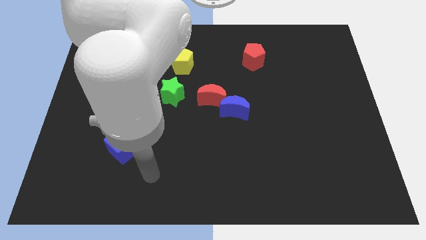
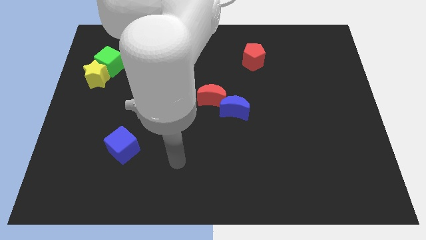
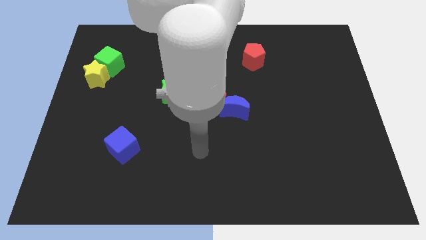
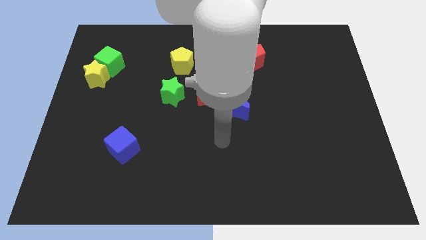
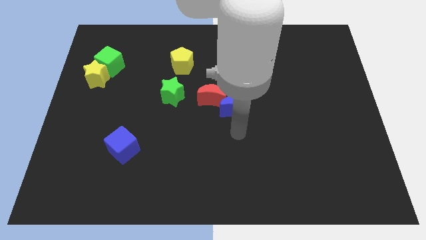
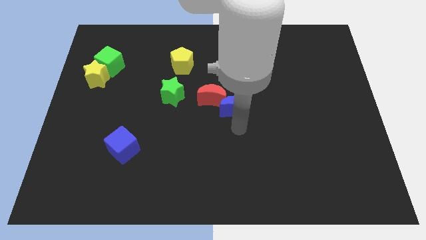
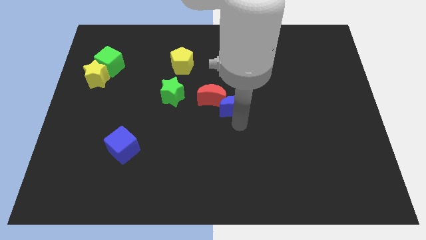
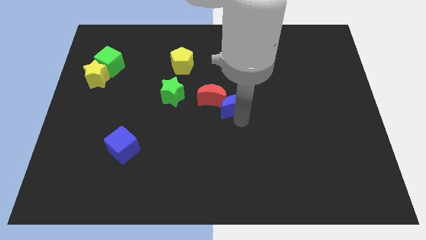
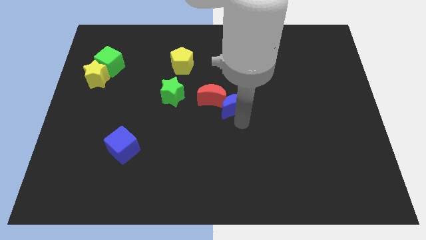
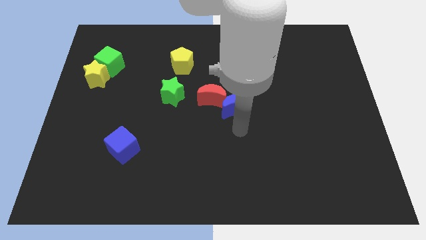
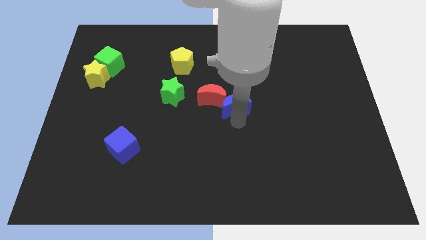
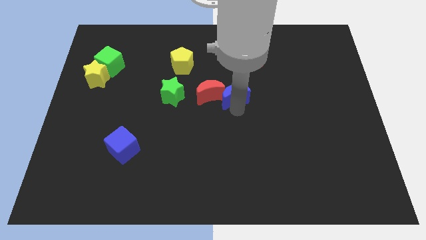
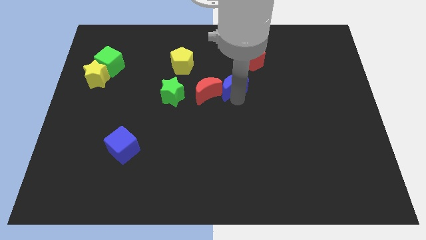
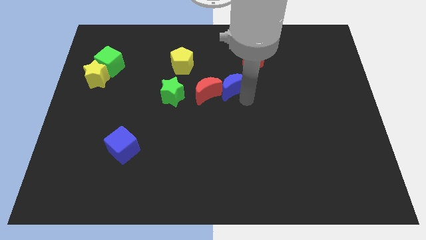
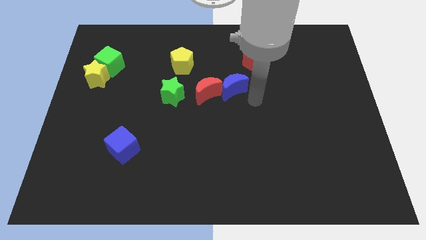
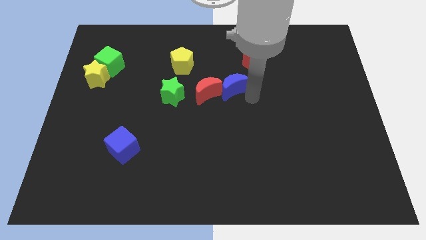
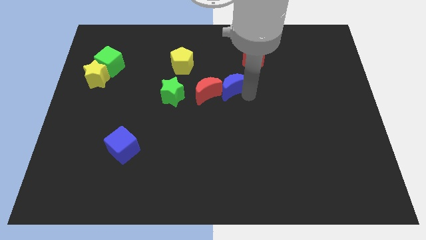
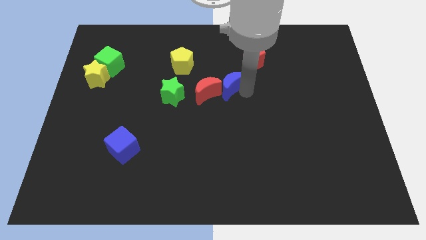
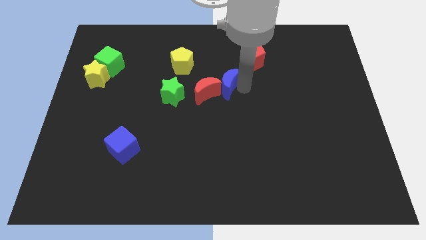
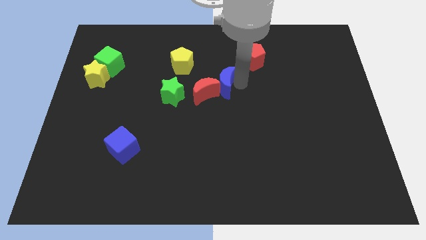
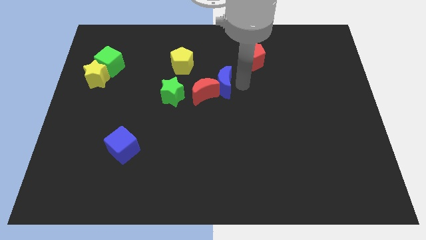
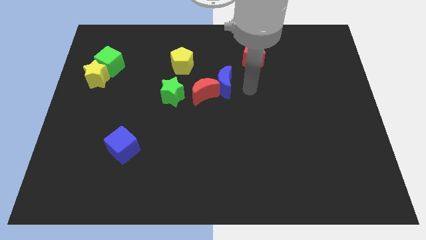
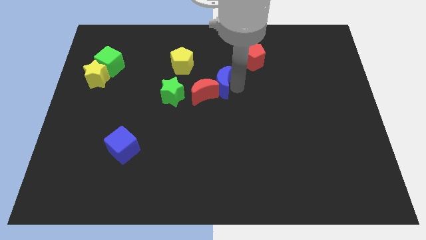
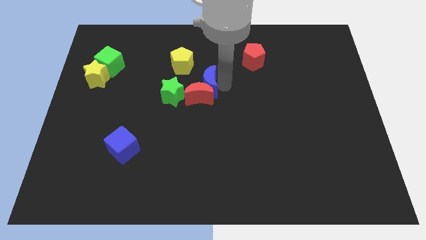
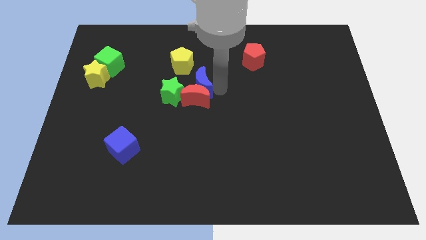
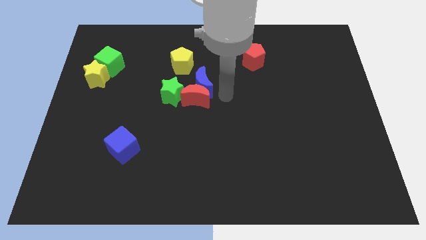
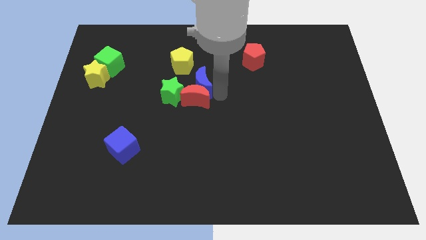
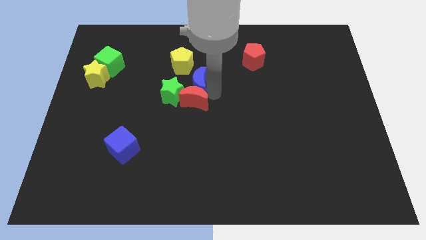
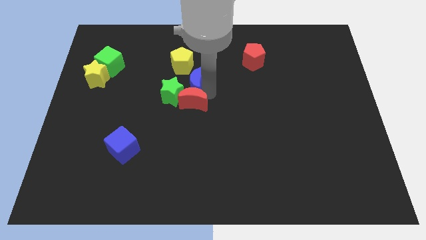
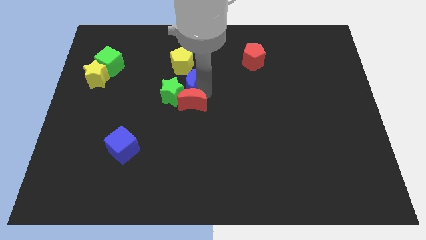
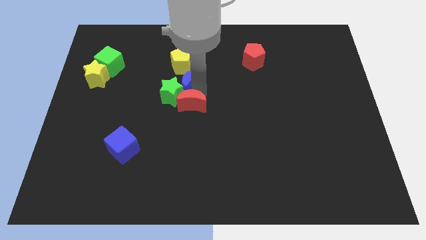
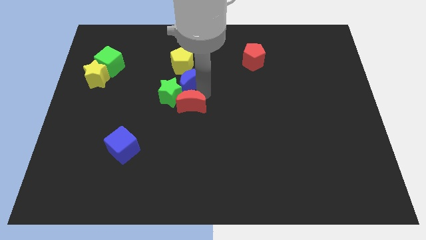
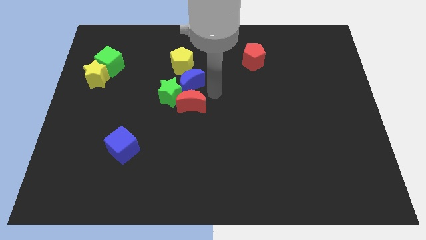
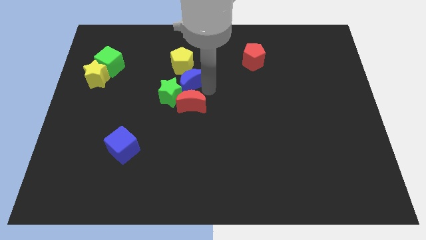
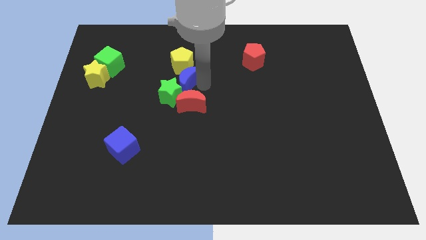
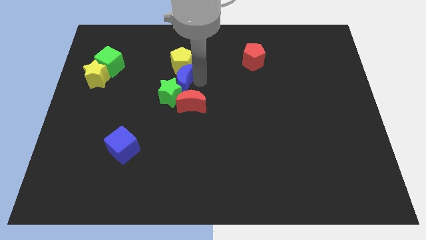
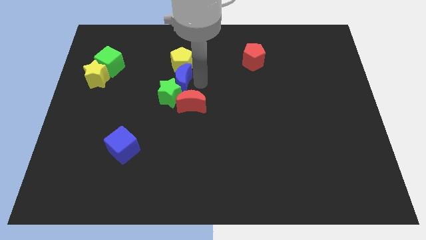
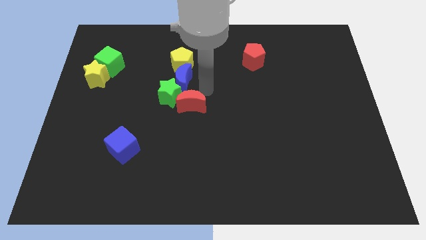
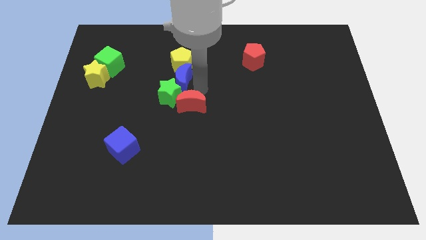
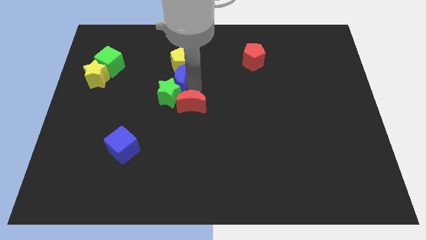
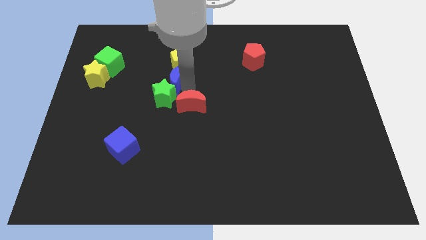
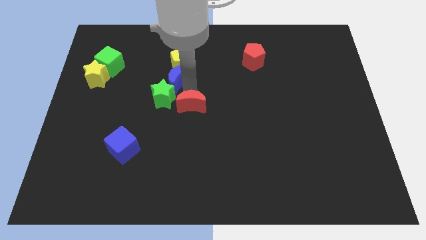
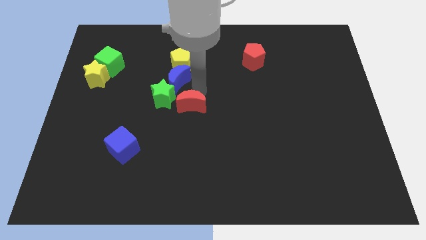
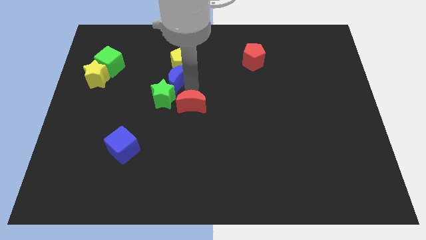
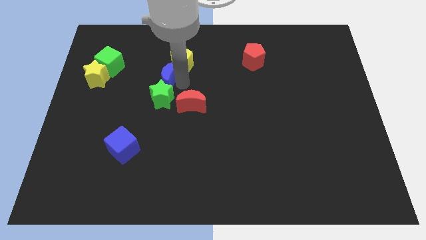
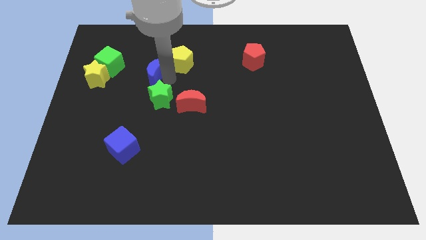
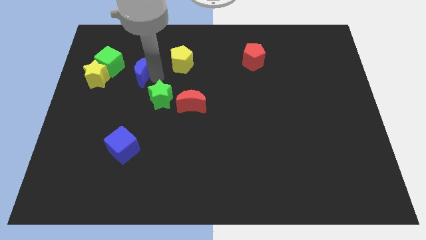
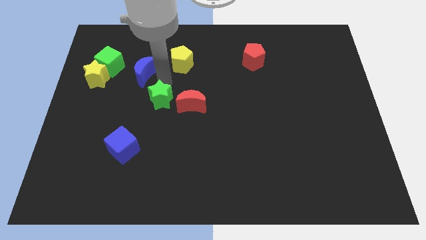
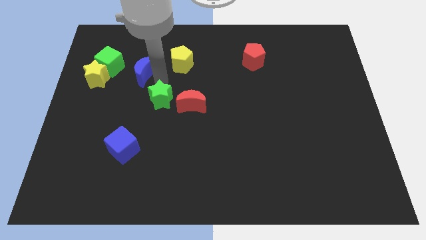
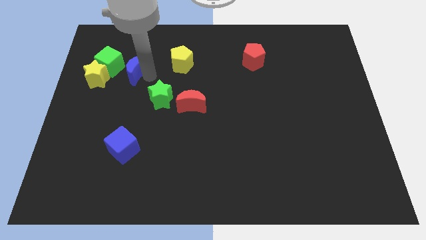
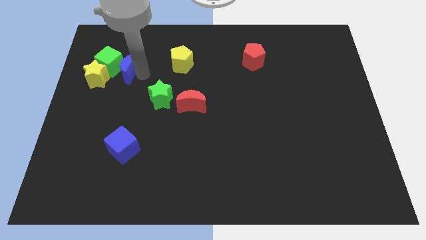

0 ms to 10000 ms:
push the blue moon diagonally up and to the right of the yellow star

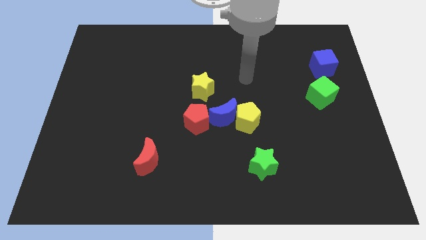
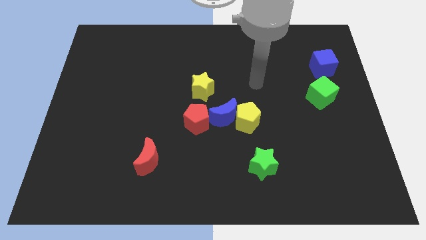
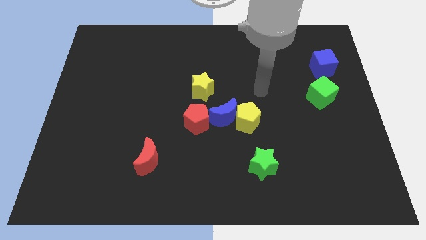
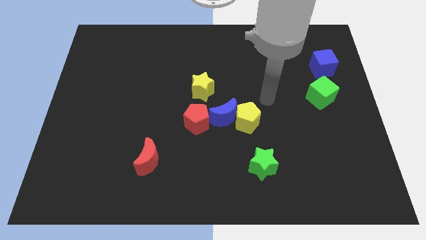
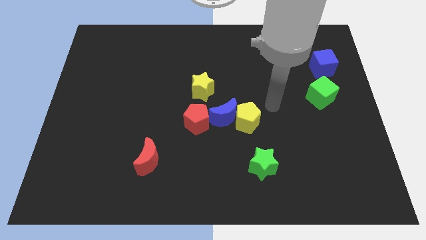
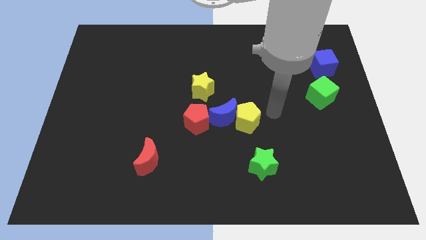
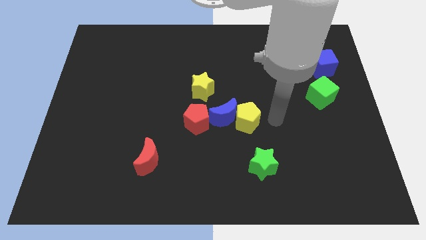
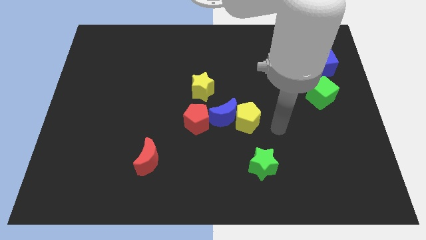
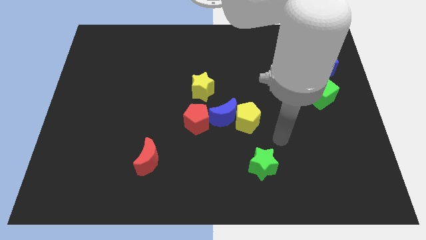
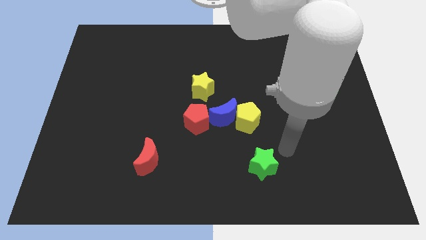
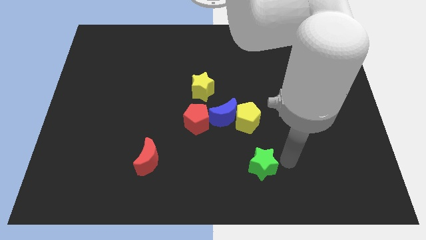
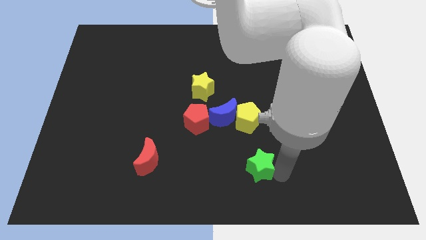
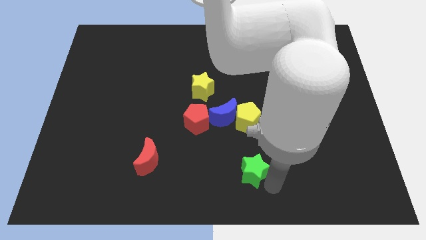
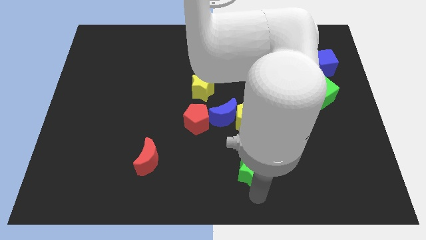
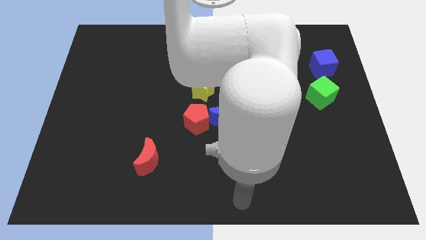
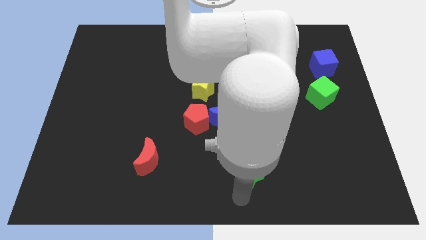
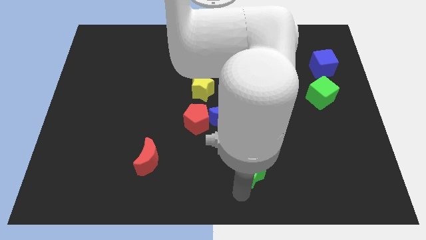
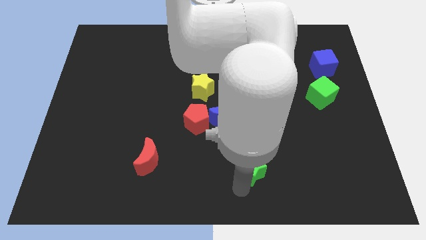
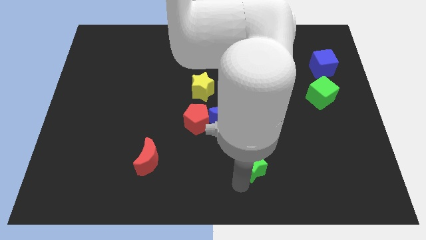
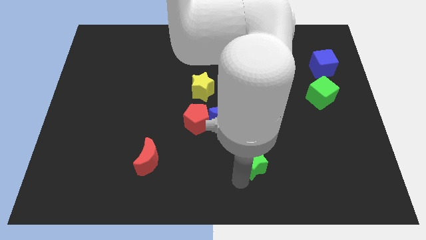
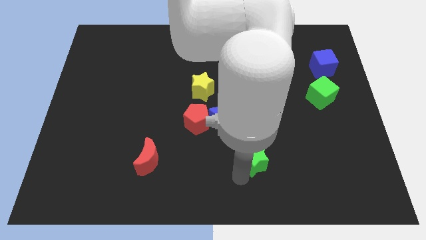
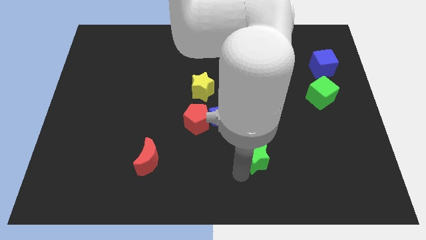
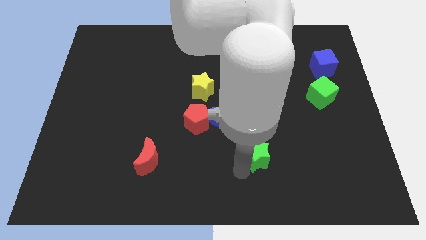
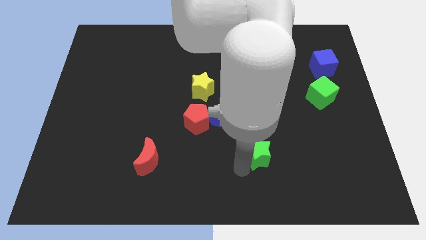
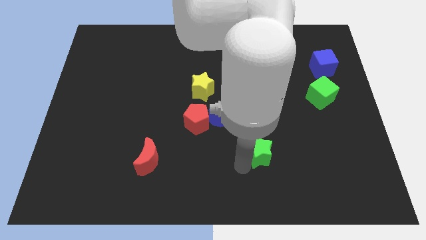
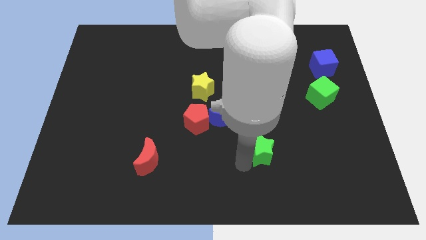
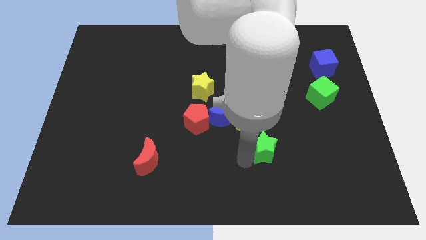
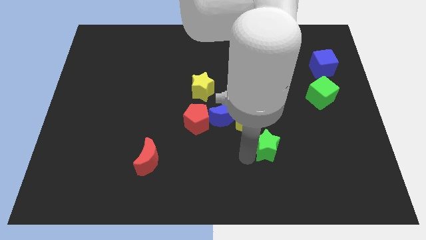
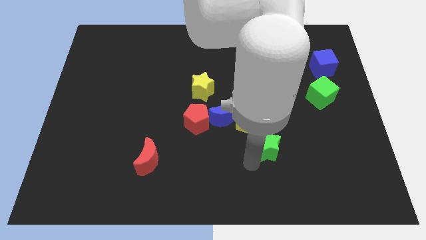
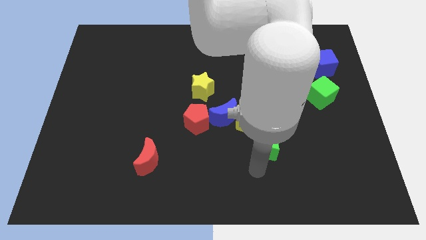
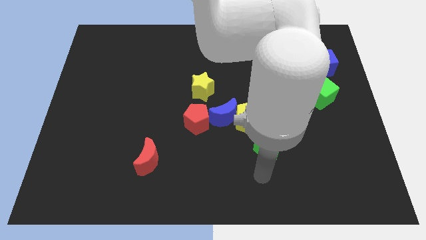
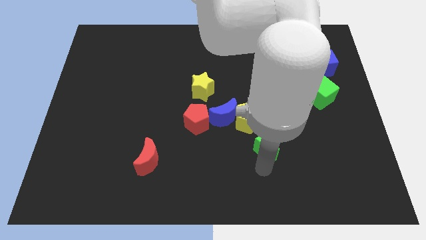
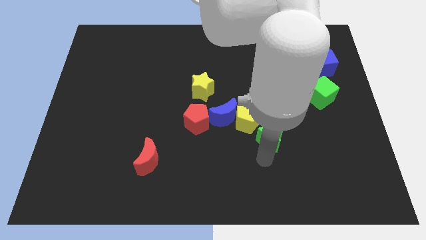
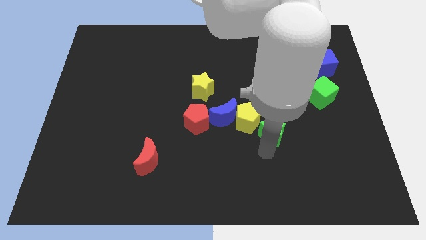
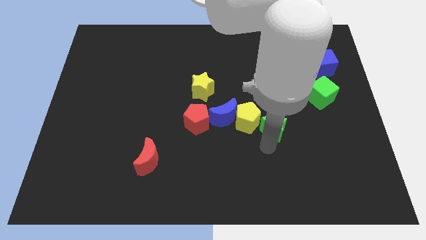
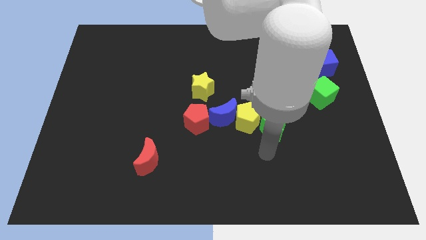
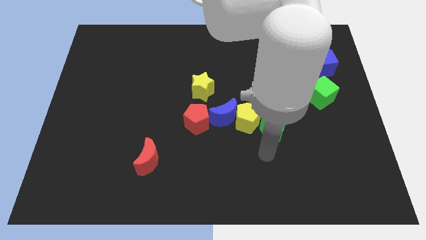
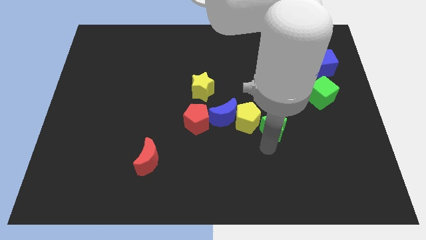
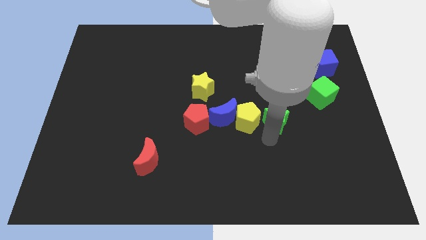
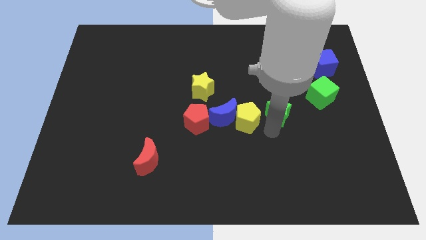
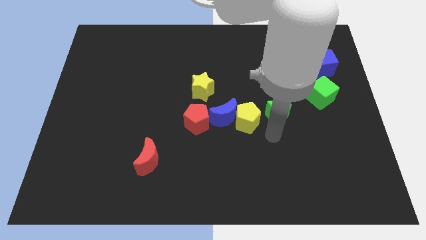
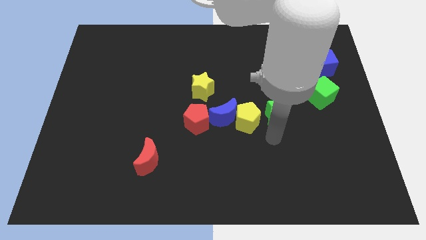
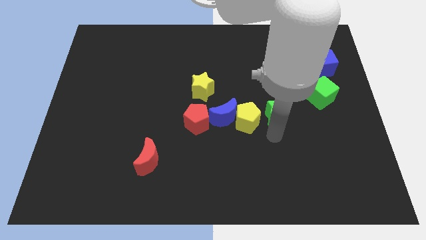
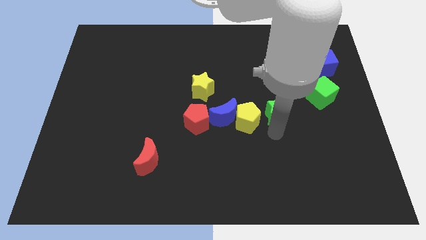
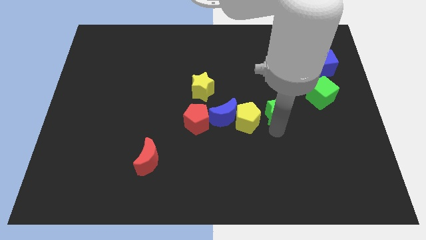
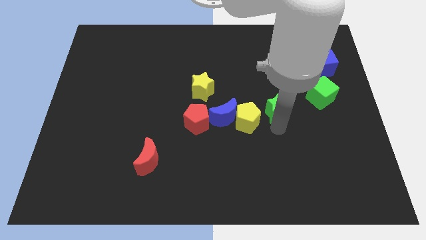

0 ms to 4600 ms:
push the green star to the left side of the green cube
